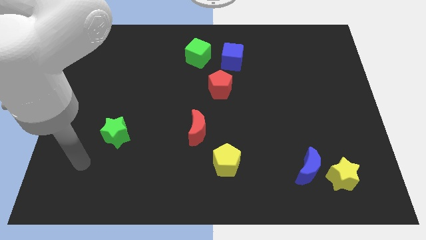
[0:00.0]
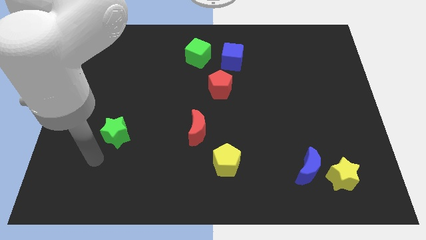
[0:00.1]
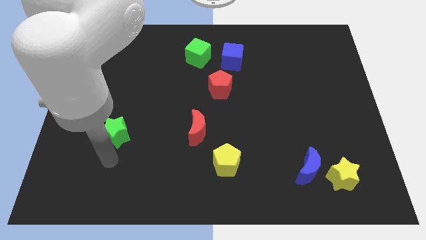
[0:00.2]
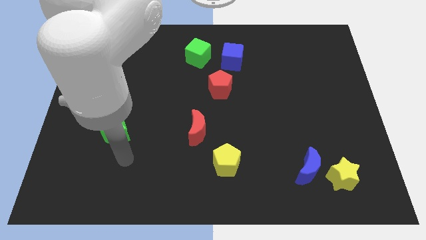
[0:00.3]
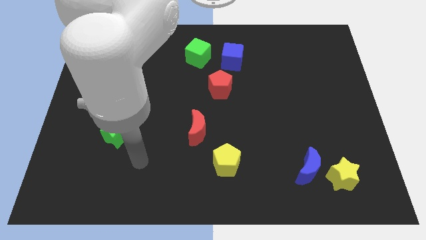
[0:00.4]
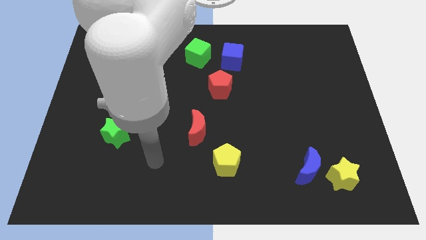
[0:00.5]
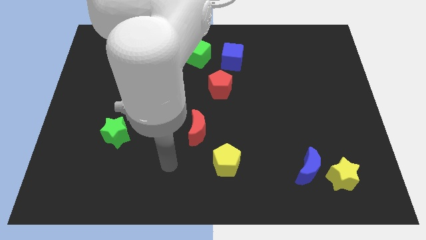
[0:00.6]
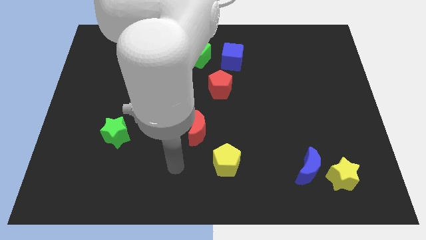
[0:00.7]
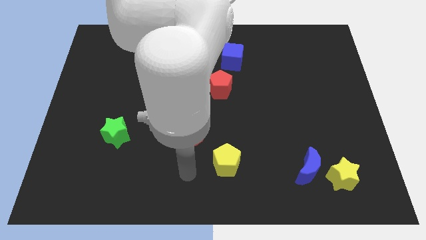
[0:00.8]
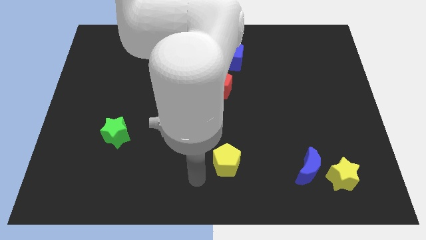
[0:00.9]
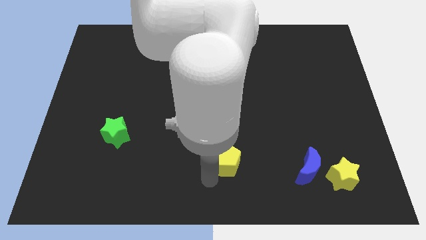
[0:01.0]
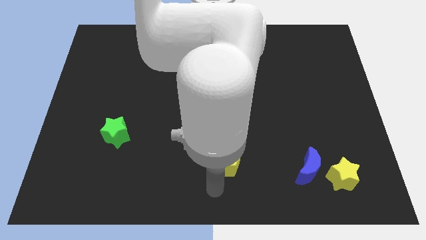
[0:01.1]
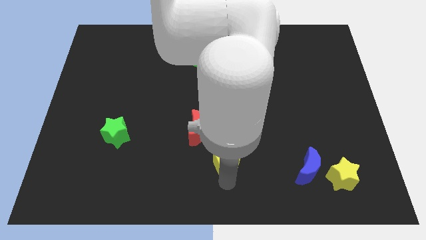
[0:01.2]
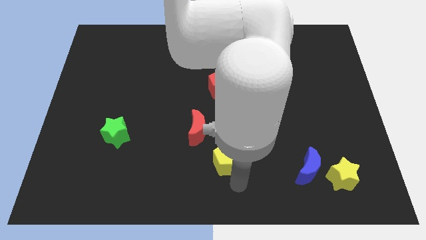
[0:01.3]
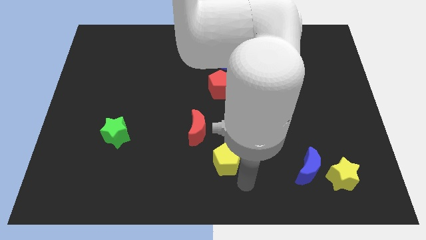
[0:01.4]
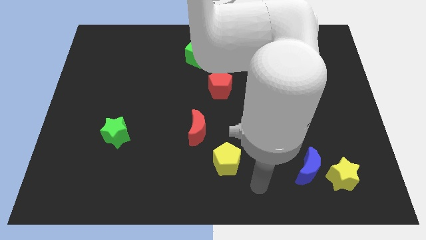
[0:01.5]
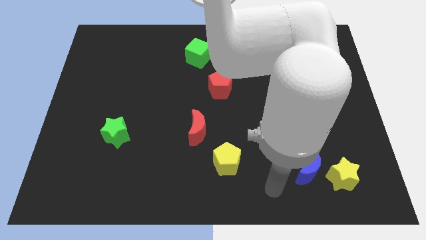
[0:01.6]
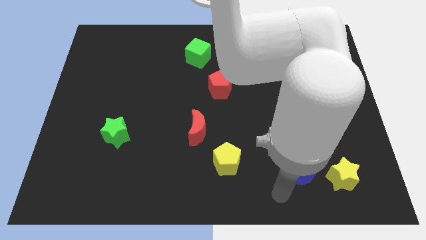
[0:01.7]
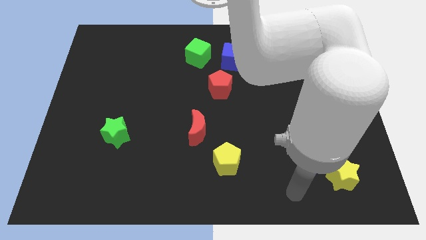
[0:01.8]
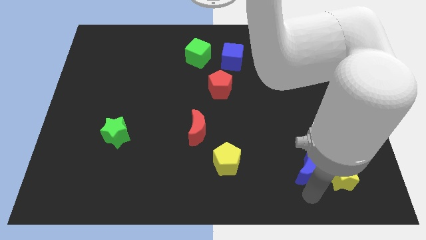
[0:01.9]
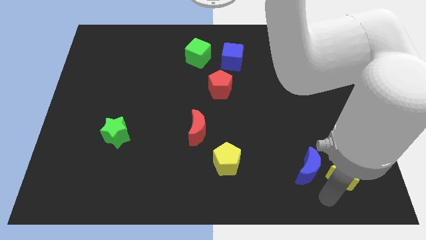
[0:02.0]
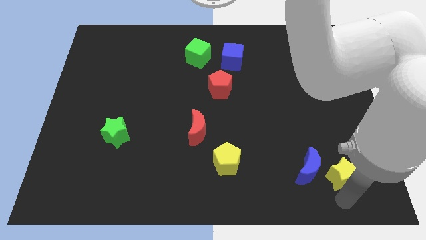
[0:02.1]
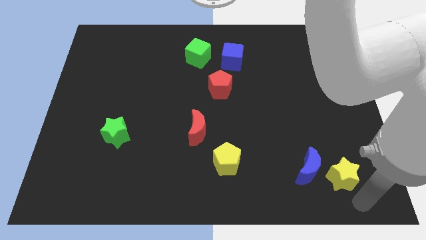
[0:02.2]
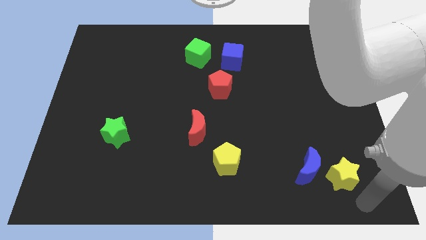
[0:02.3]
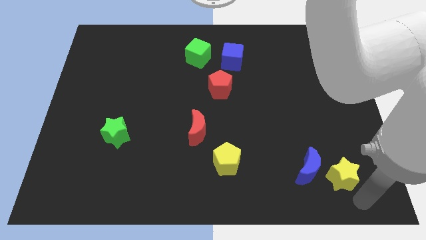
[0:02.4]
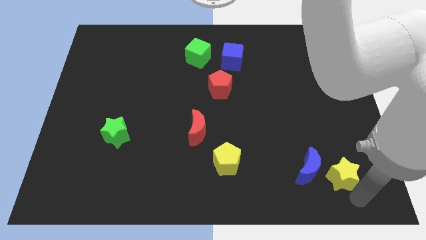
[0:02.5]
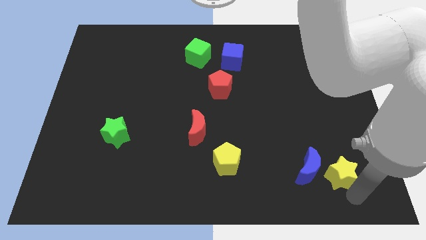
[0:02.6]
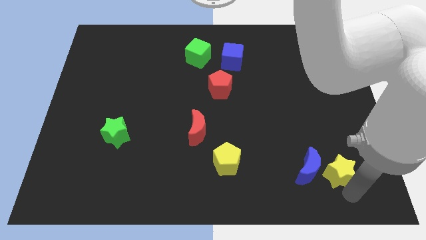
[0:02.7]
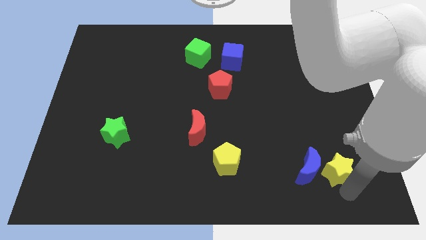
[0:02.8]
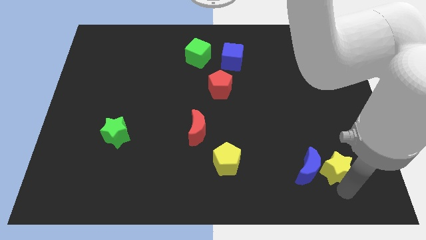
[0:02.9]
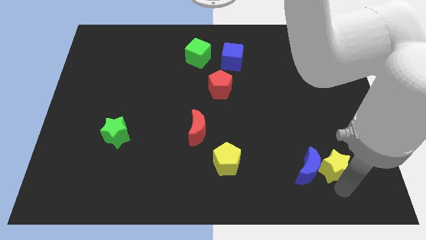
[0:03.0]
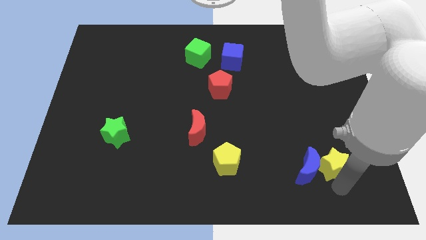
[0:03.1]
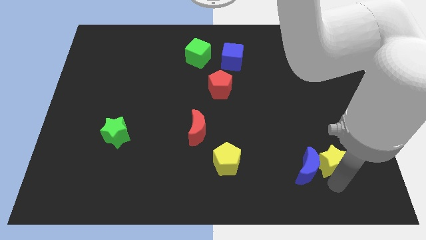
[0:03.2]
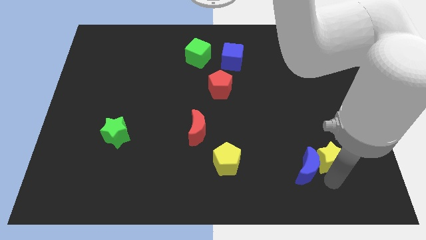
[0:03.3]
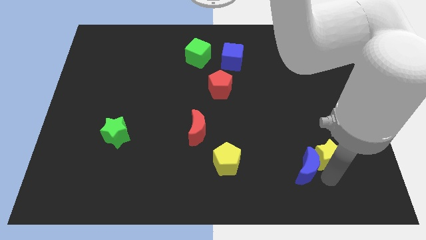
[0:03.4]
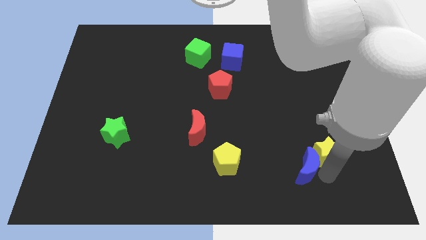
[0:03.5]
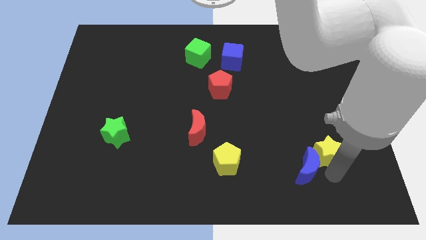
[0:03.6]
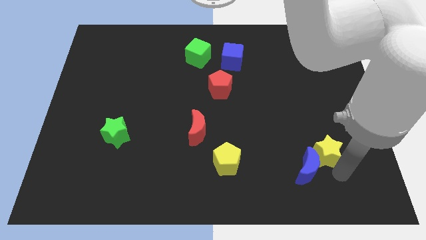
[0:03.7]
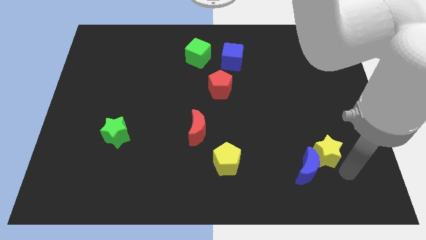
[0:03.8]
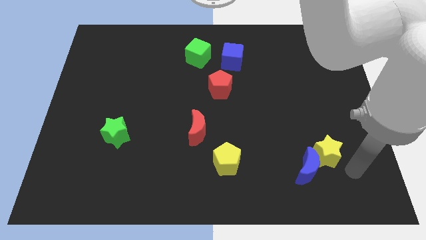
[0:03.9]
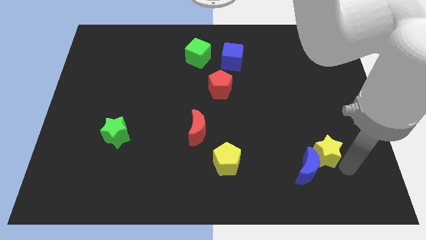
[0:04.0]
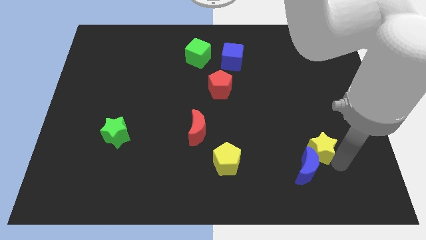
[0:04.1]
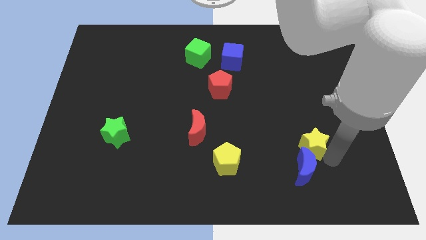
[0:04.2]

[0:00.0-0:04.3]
slide the yellow star upwards and then to the left a little bit

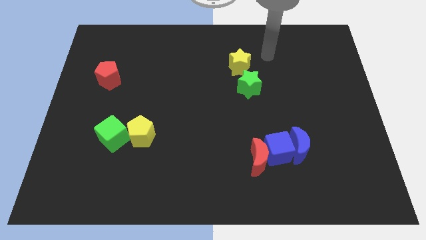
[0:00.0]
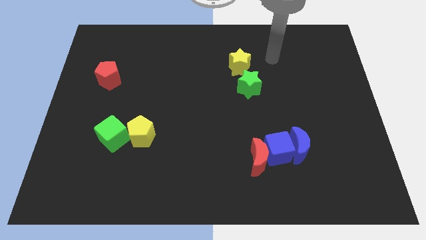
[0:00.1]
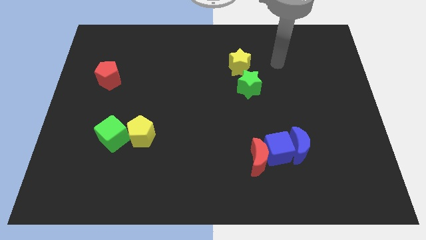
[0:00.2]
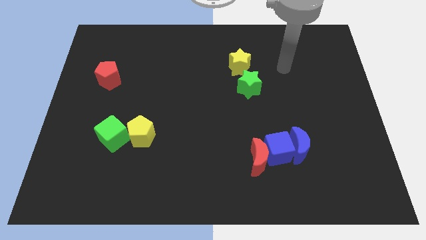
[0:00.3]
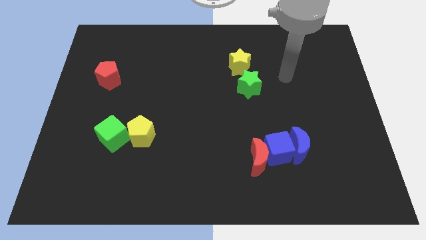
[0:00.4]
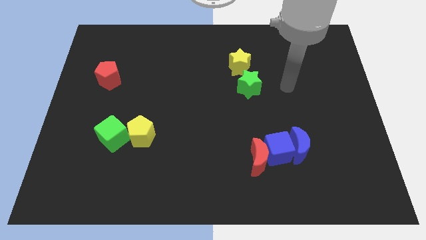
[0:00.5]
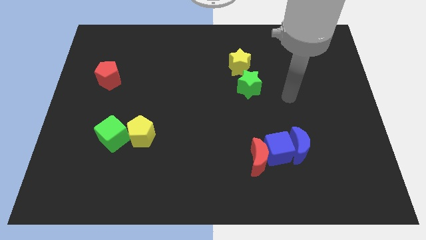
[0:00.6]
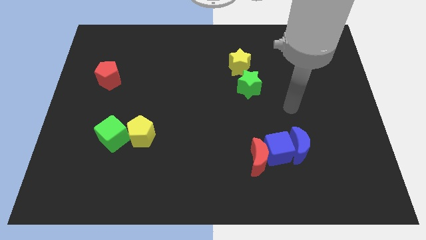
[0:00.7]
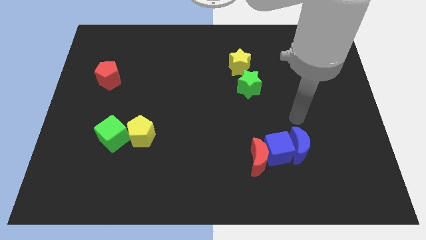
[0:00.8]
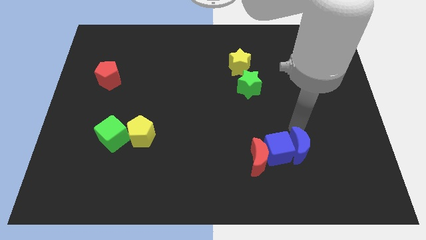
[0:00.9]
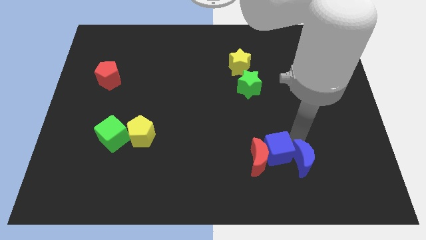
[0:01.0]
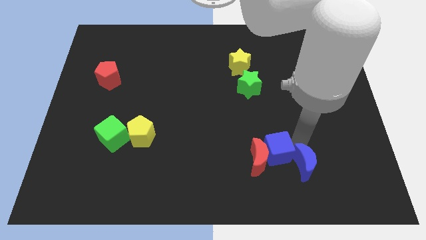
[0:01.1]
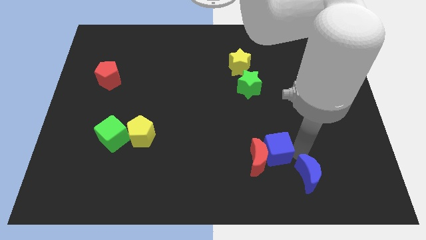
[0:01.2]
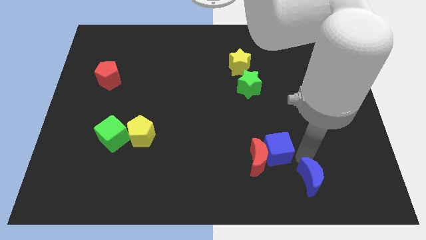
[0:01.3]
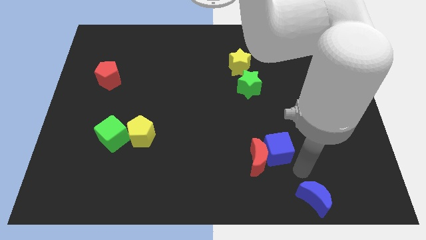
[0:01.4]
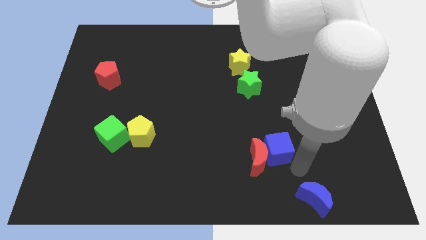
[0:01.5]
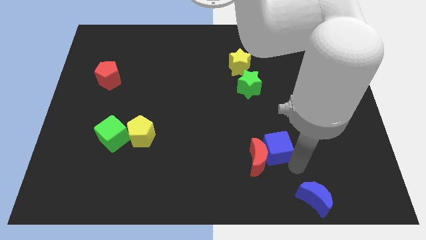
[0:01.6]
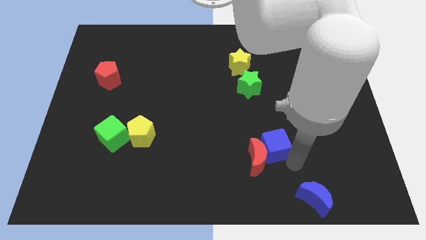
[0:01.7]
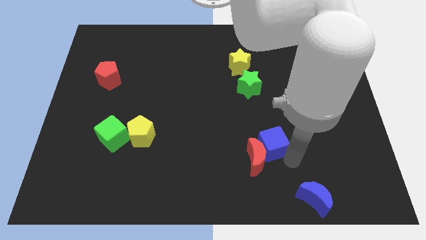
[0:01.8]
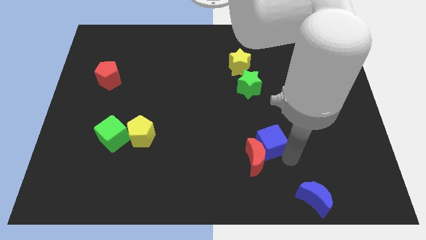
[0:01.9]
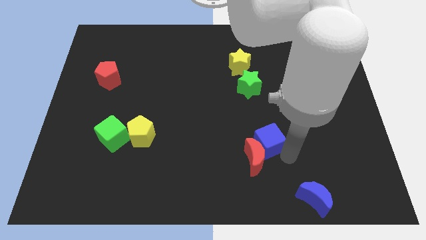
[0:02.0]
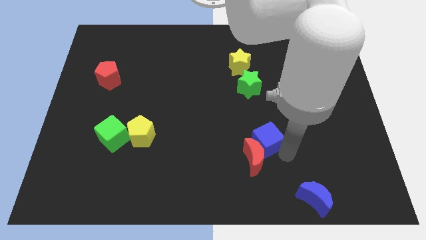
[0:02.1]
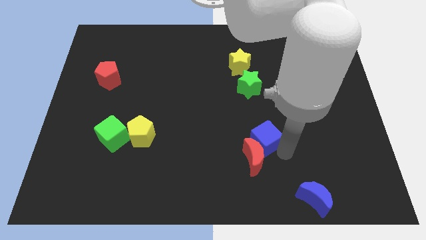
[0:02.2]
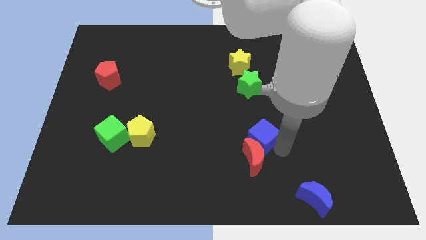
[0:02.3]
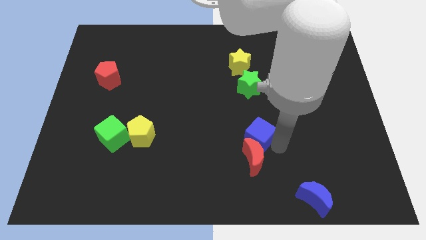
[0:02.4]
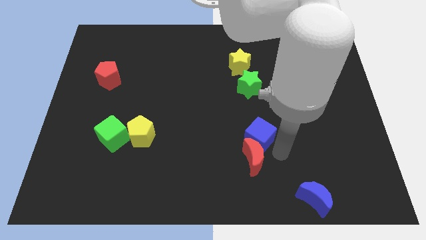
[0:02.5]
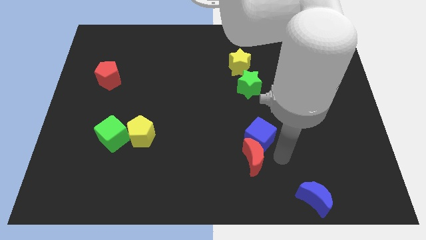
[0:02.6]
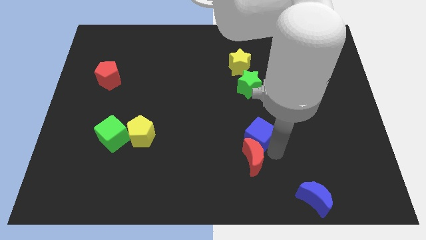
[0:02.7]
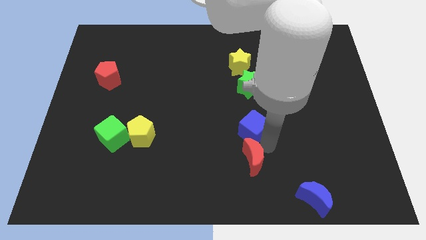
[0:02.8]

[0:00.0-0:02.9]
slightly slide the blue cube diagonally up and to the left

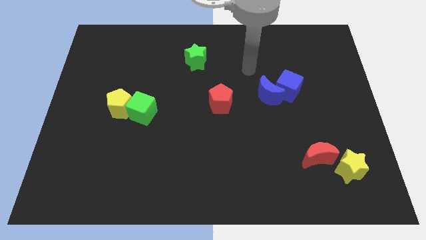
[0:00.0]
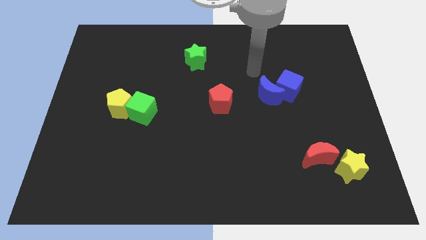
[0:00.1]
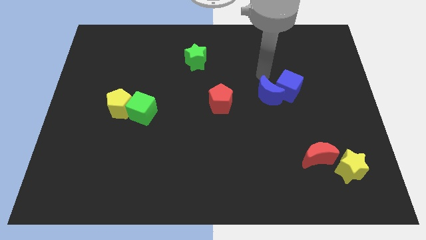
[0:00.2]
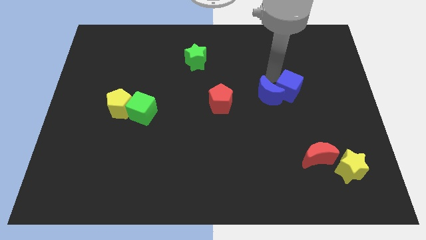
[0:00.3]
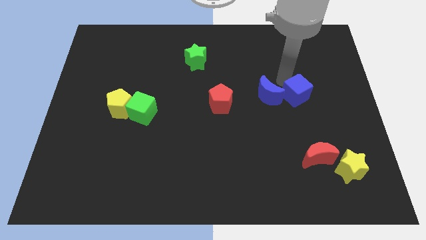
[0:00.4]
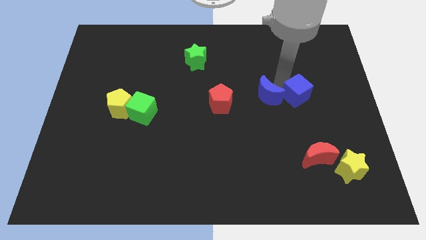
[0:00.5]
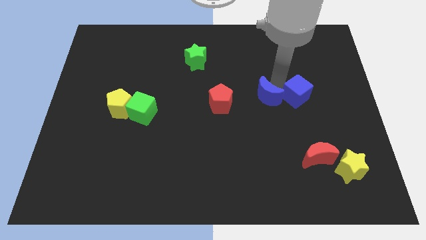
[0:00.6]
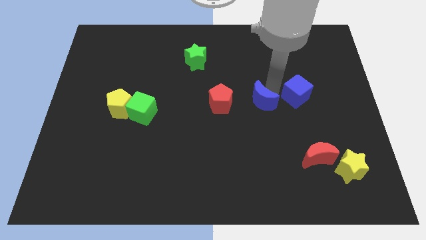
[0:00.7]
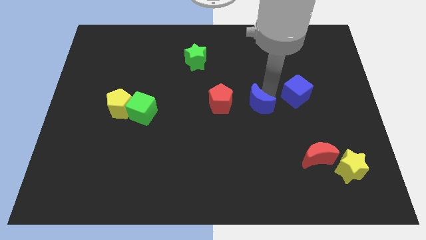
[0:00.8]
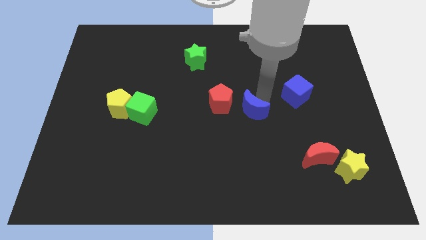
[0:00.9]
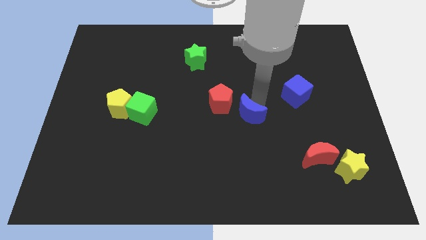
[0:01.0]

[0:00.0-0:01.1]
push the blue moon slightly downwards and then to the left
